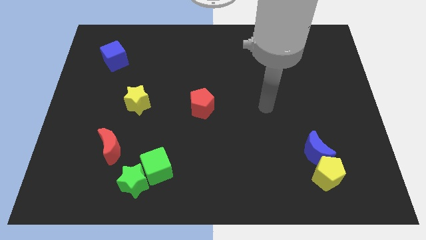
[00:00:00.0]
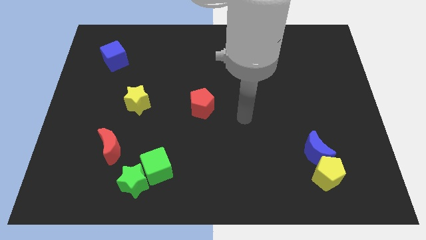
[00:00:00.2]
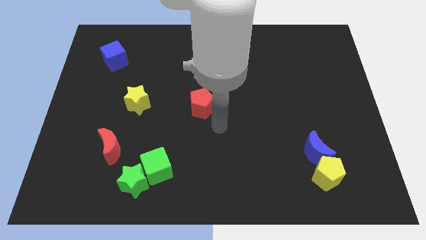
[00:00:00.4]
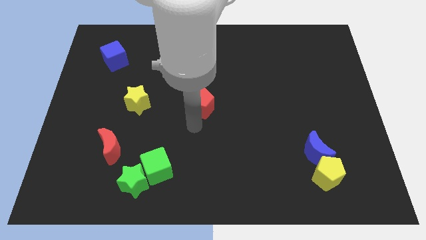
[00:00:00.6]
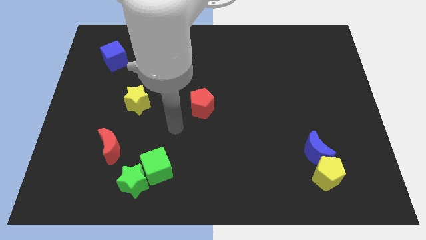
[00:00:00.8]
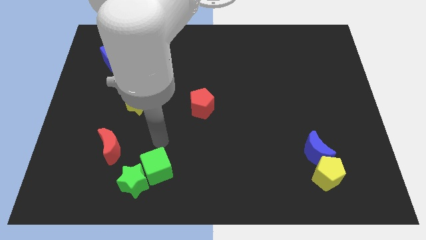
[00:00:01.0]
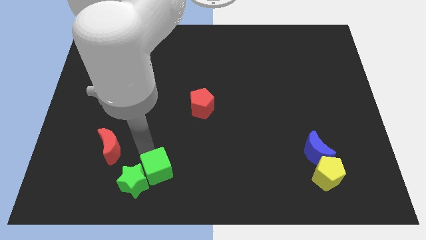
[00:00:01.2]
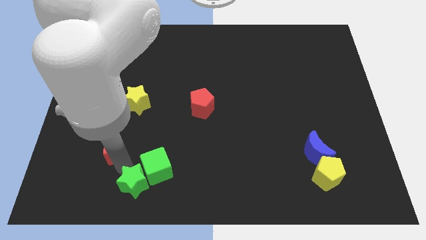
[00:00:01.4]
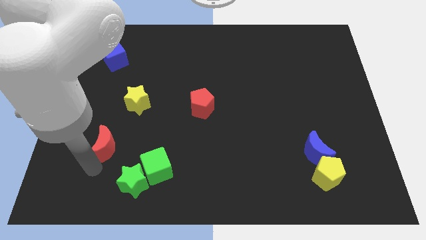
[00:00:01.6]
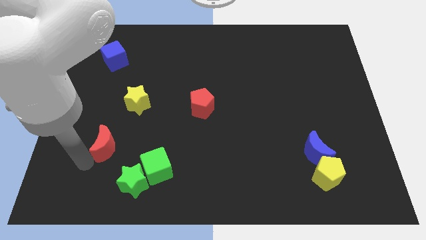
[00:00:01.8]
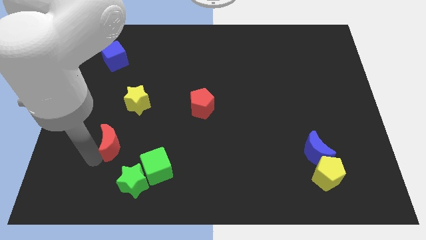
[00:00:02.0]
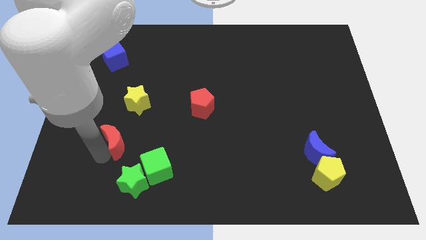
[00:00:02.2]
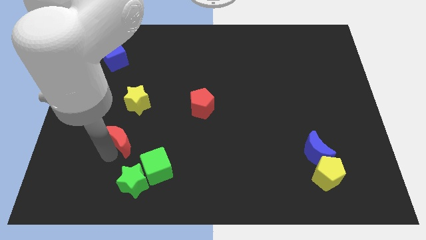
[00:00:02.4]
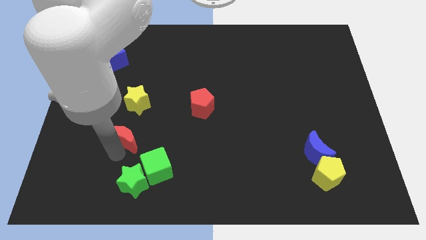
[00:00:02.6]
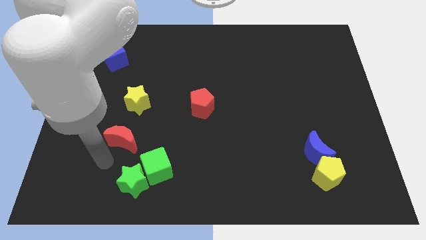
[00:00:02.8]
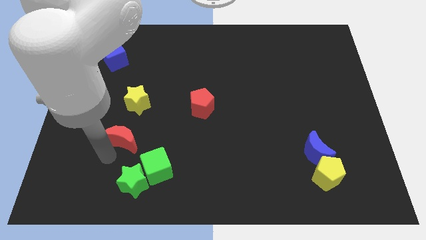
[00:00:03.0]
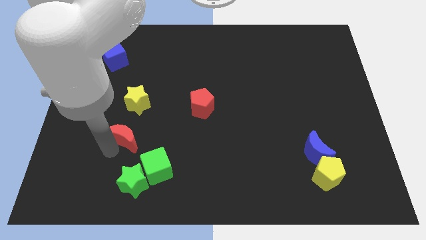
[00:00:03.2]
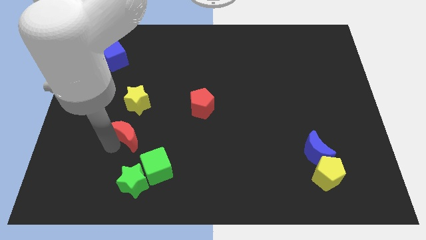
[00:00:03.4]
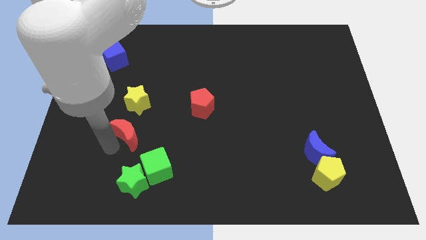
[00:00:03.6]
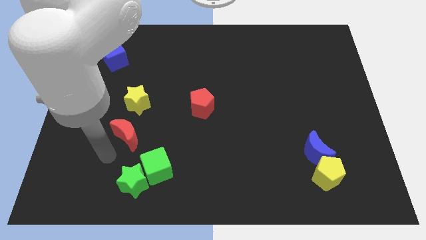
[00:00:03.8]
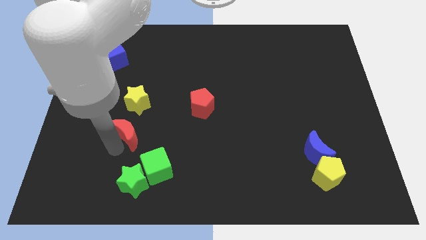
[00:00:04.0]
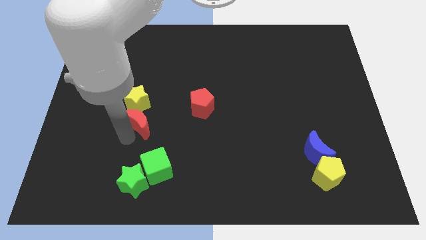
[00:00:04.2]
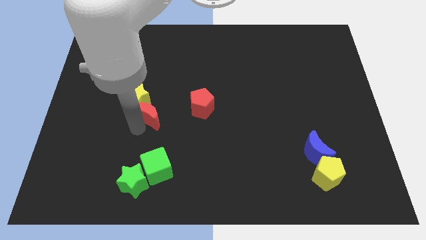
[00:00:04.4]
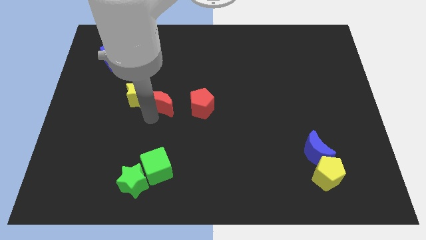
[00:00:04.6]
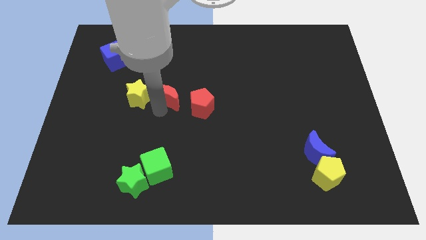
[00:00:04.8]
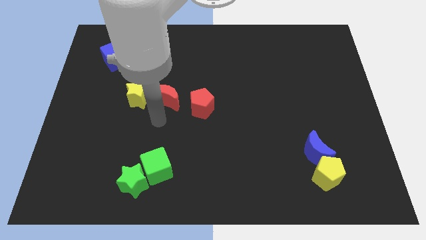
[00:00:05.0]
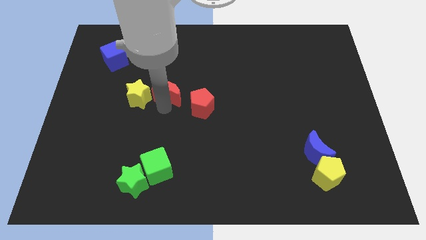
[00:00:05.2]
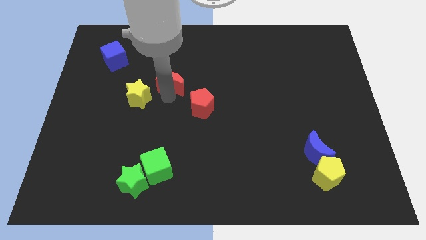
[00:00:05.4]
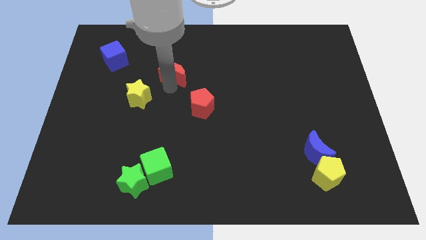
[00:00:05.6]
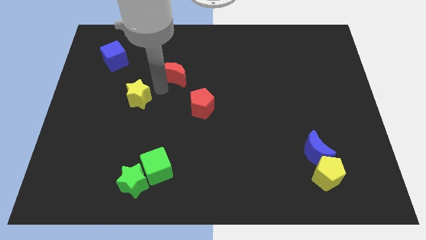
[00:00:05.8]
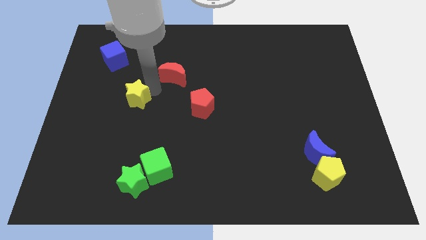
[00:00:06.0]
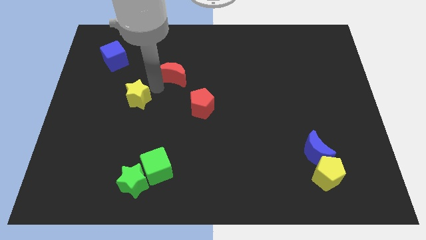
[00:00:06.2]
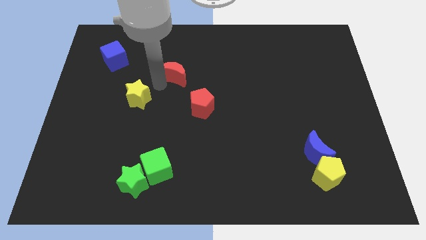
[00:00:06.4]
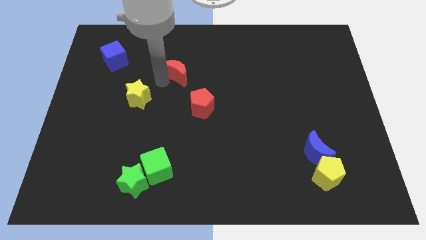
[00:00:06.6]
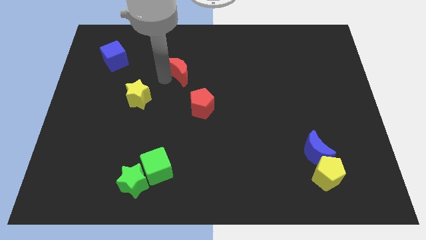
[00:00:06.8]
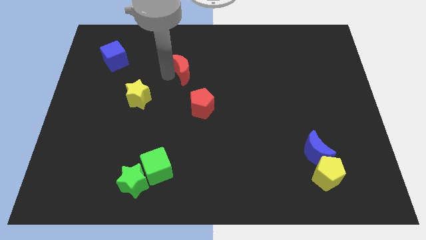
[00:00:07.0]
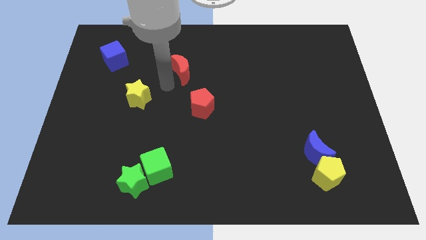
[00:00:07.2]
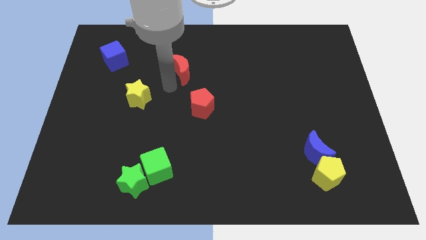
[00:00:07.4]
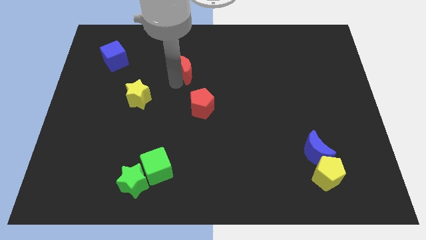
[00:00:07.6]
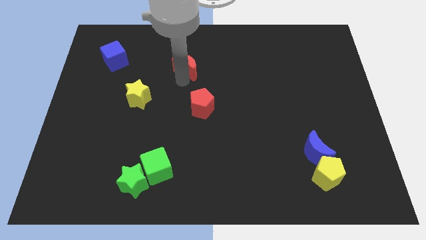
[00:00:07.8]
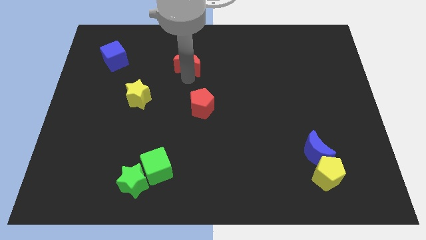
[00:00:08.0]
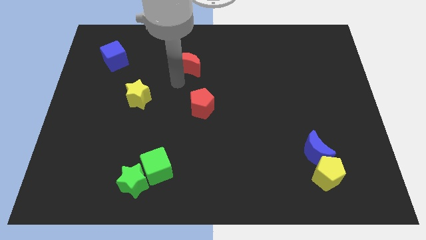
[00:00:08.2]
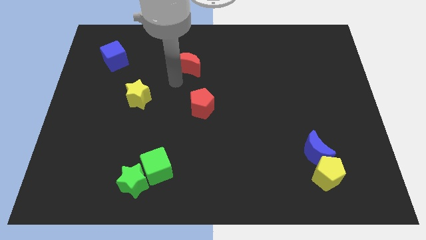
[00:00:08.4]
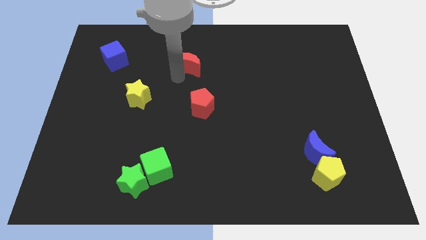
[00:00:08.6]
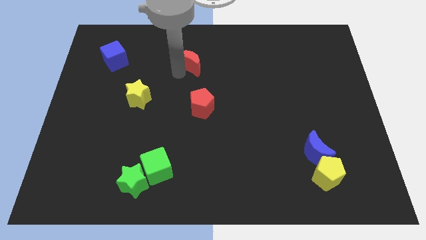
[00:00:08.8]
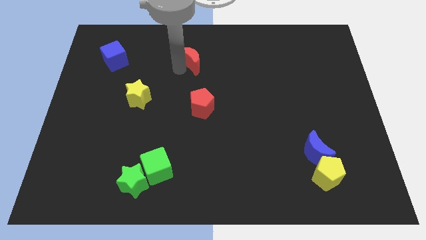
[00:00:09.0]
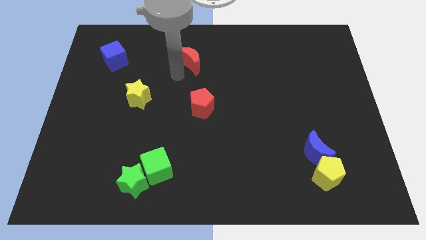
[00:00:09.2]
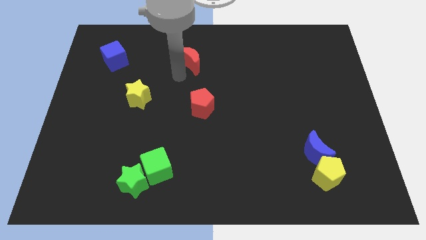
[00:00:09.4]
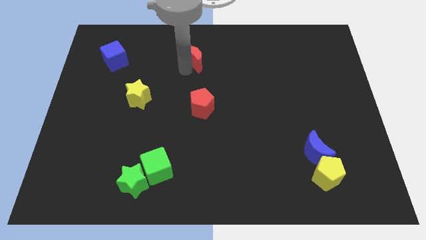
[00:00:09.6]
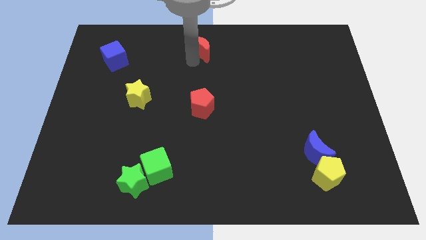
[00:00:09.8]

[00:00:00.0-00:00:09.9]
move the red moon to the top side

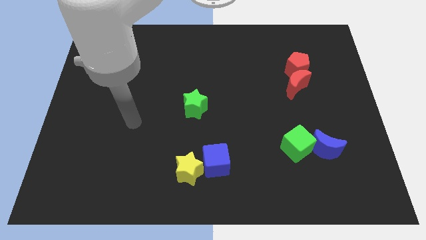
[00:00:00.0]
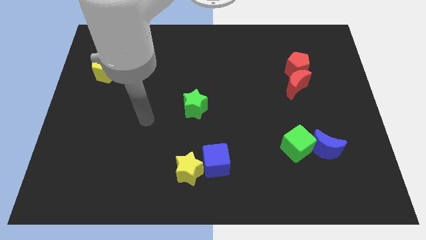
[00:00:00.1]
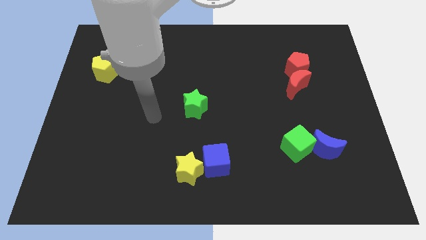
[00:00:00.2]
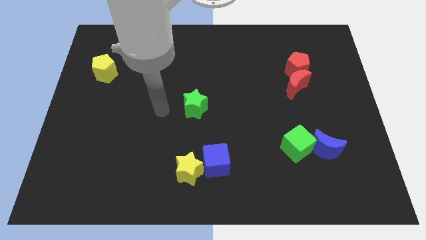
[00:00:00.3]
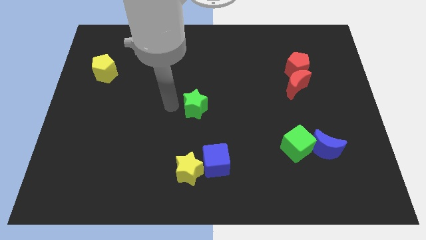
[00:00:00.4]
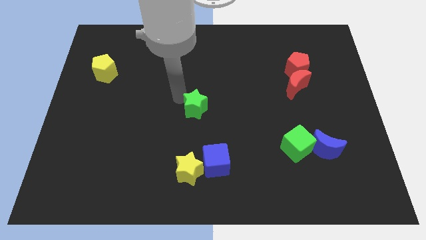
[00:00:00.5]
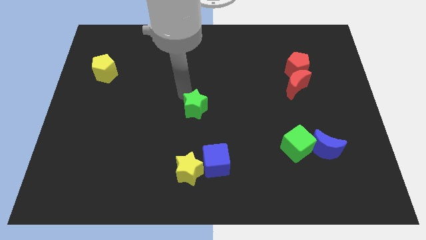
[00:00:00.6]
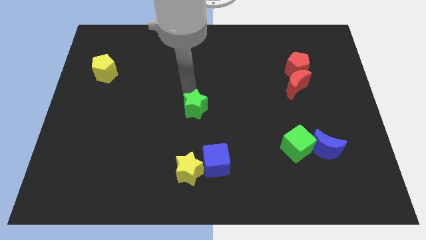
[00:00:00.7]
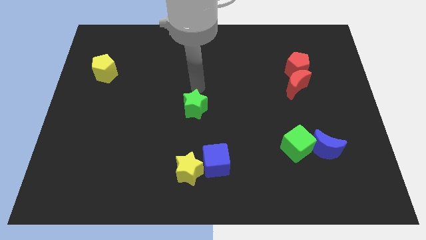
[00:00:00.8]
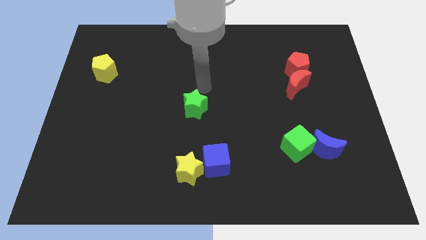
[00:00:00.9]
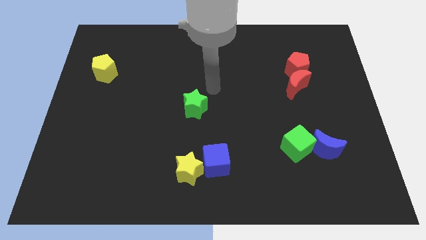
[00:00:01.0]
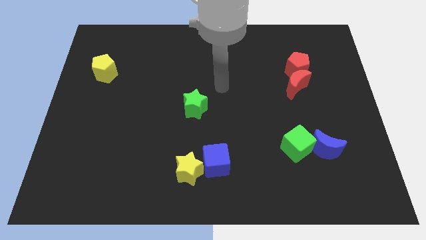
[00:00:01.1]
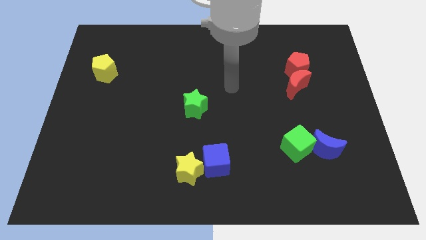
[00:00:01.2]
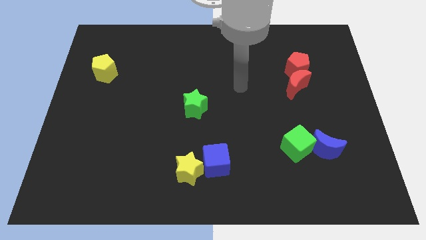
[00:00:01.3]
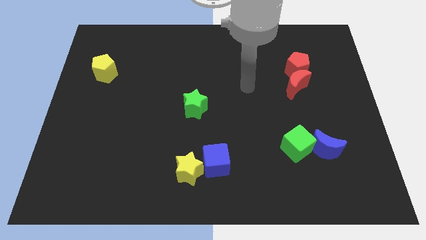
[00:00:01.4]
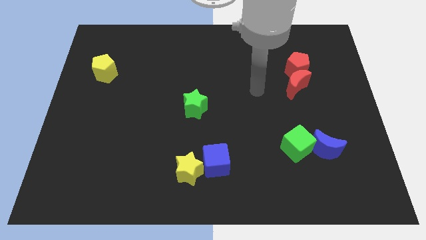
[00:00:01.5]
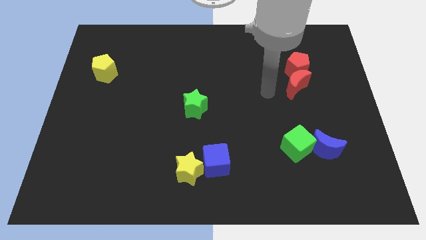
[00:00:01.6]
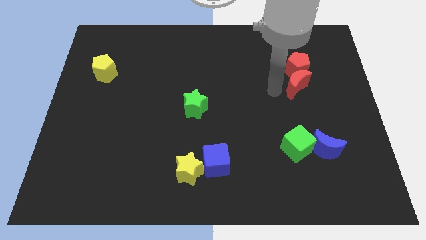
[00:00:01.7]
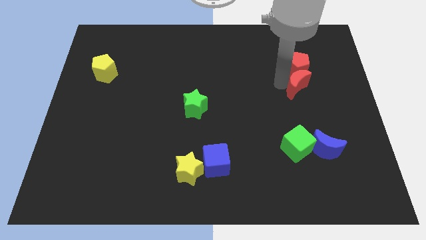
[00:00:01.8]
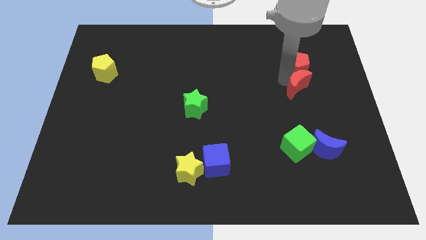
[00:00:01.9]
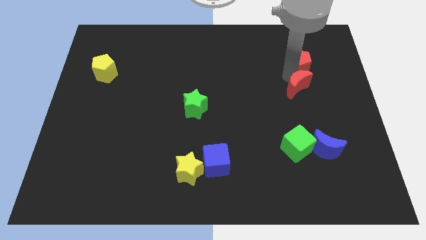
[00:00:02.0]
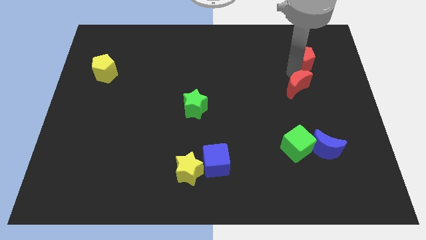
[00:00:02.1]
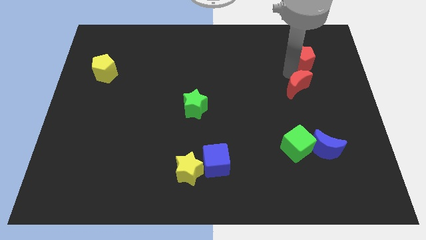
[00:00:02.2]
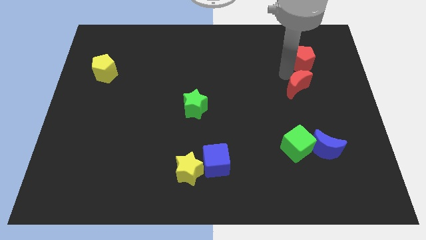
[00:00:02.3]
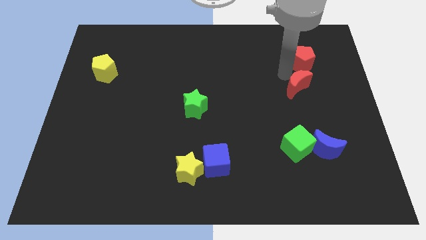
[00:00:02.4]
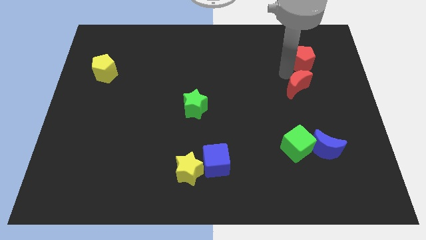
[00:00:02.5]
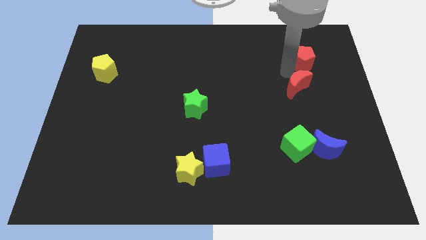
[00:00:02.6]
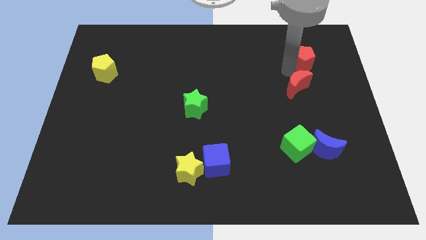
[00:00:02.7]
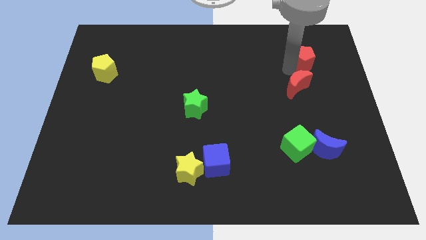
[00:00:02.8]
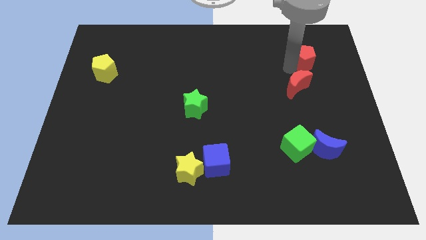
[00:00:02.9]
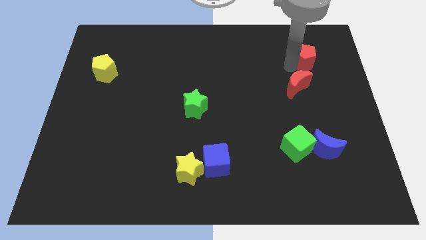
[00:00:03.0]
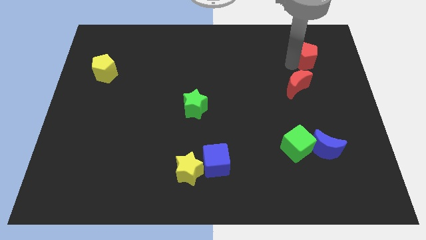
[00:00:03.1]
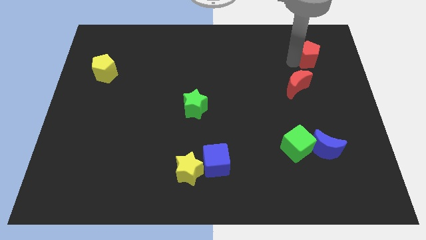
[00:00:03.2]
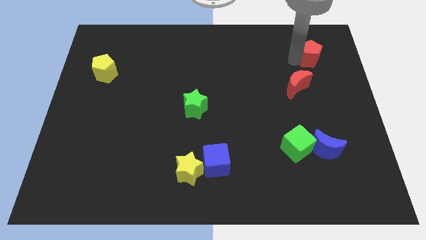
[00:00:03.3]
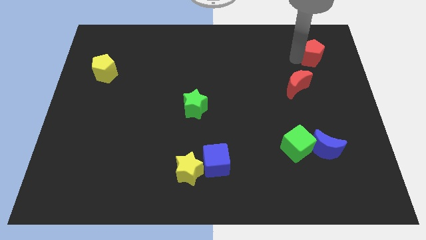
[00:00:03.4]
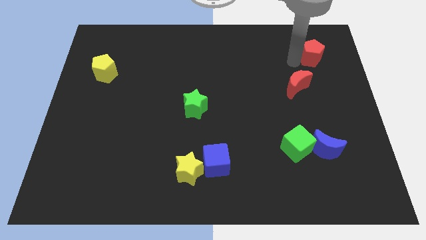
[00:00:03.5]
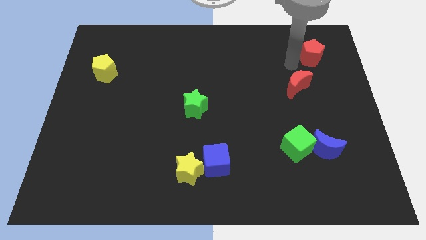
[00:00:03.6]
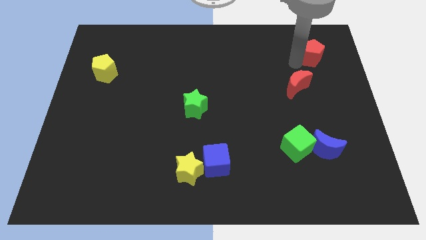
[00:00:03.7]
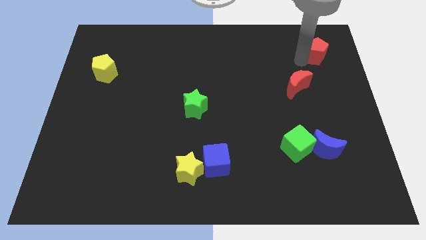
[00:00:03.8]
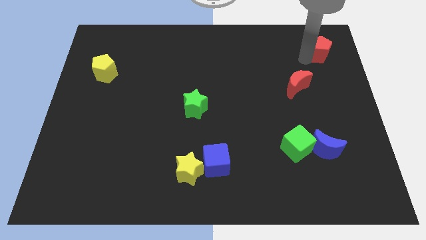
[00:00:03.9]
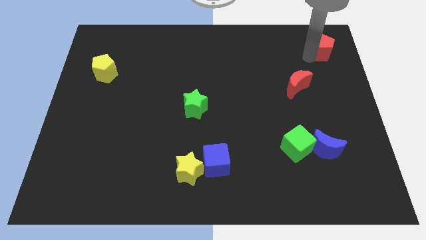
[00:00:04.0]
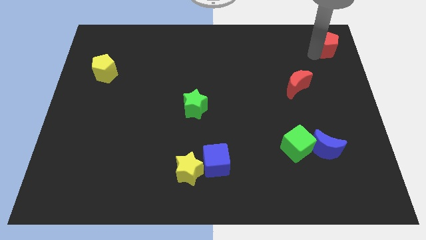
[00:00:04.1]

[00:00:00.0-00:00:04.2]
move the red pentagon to the top right of the board
